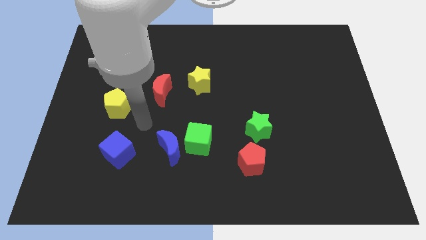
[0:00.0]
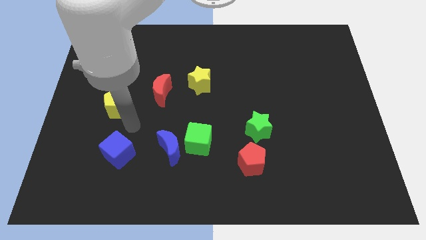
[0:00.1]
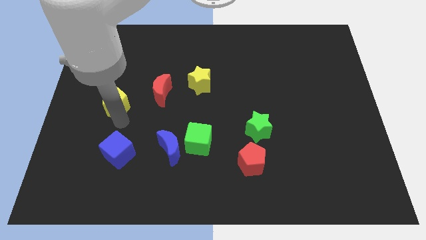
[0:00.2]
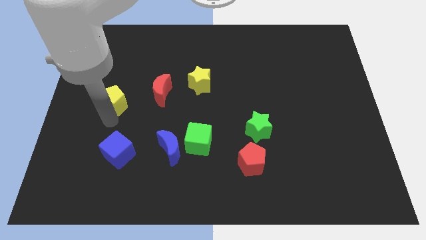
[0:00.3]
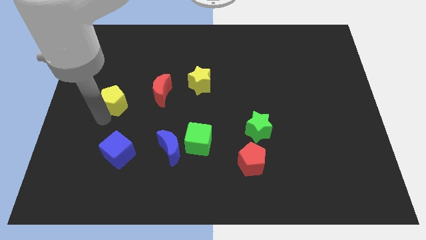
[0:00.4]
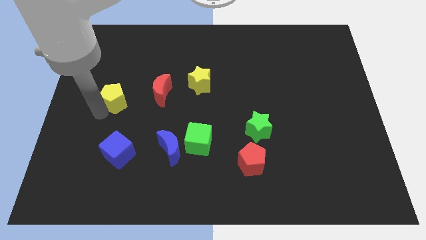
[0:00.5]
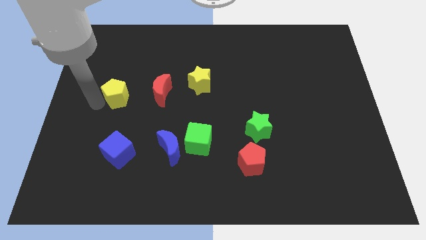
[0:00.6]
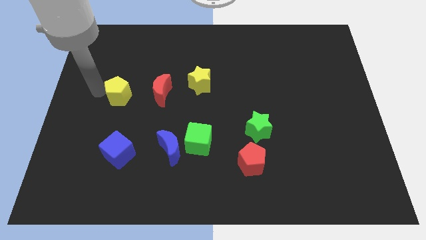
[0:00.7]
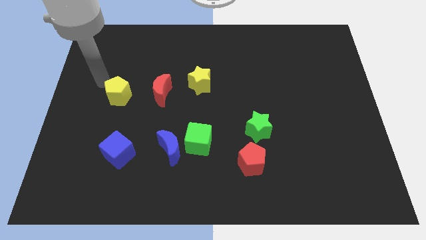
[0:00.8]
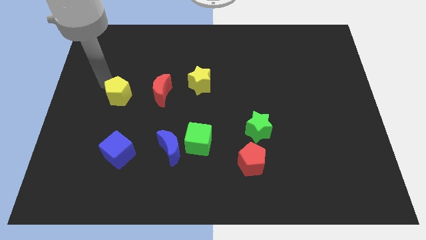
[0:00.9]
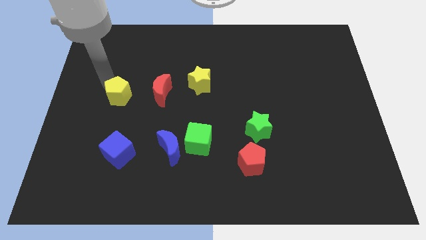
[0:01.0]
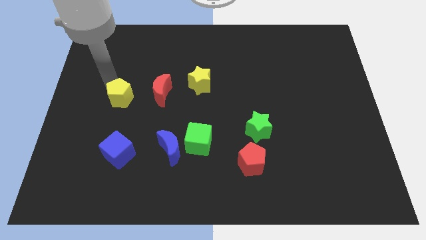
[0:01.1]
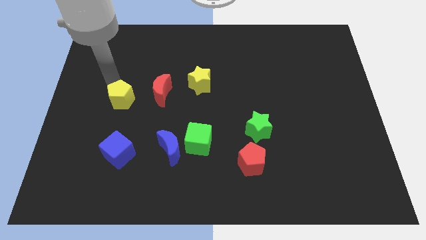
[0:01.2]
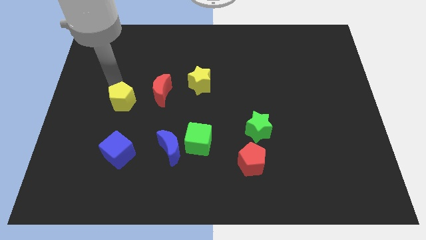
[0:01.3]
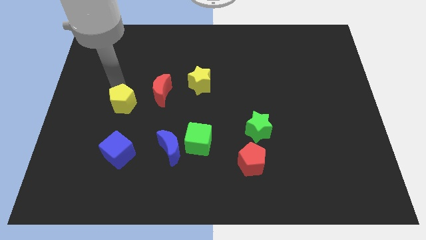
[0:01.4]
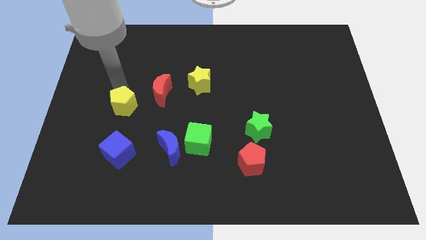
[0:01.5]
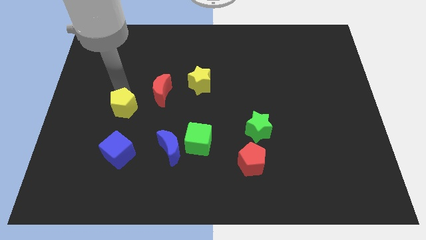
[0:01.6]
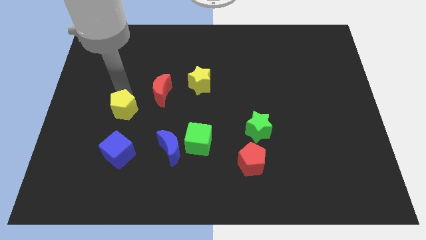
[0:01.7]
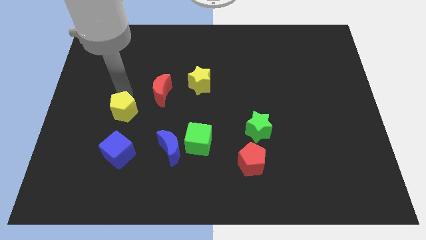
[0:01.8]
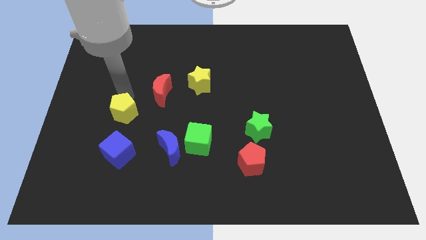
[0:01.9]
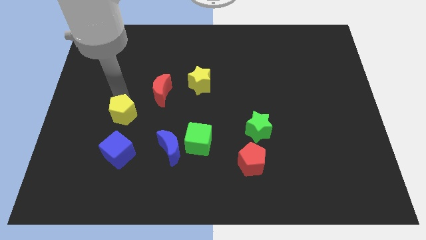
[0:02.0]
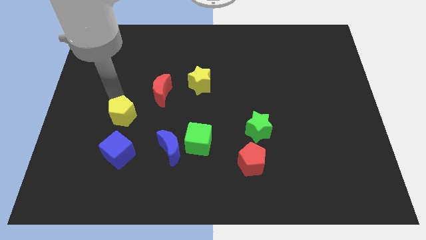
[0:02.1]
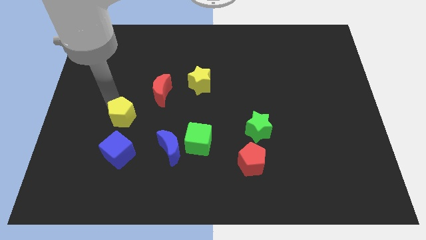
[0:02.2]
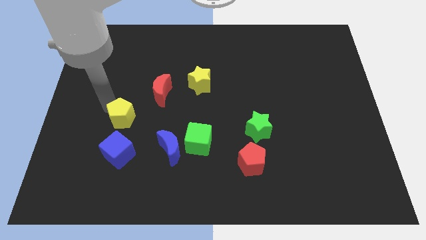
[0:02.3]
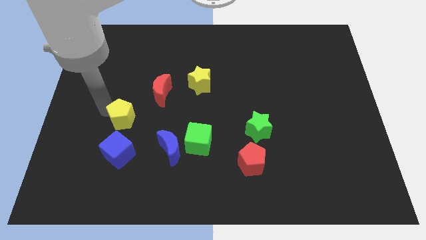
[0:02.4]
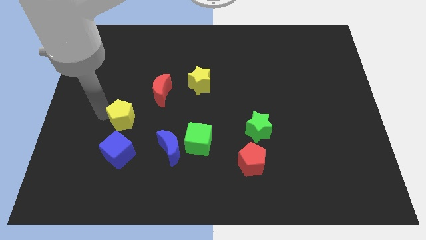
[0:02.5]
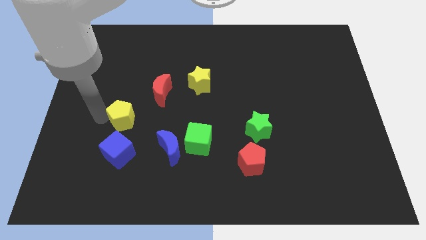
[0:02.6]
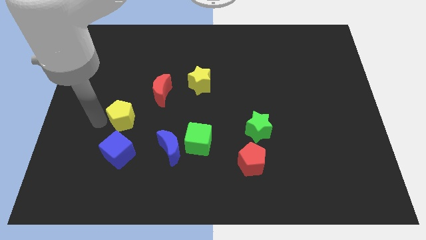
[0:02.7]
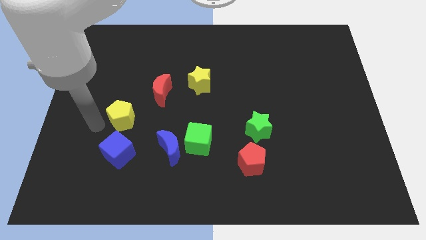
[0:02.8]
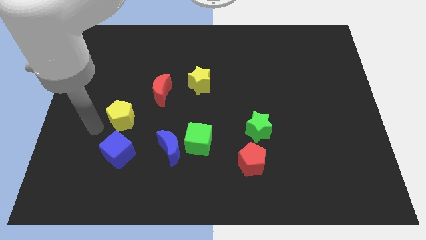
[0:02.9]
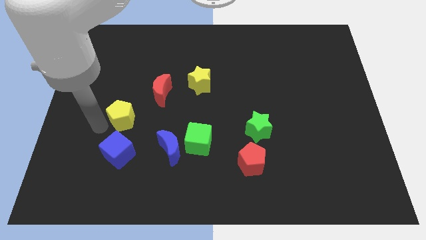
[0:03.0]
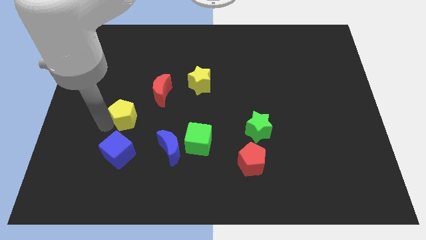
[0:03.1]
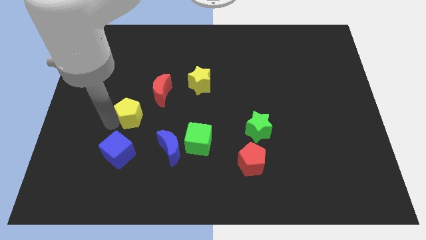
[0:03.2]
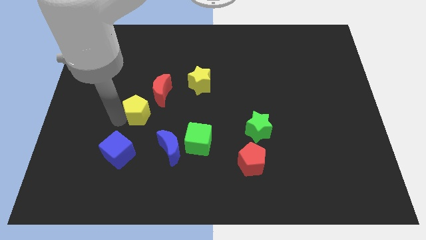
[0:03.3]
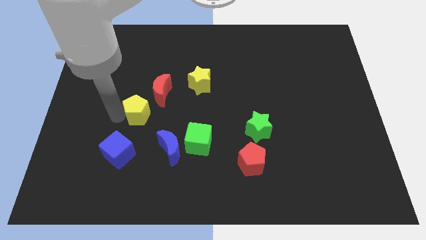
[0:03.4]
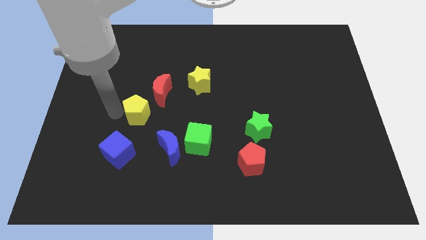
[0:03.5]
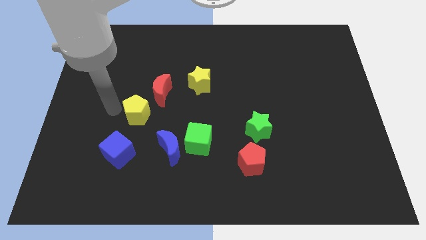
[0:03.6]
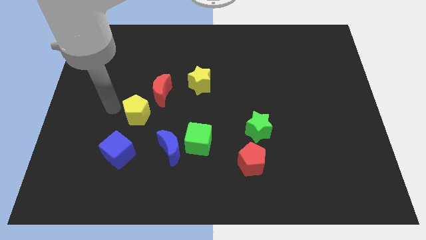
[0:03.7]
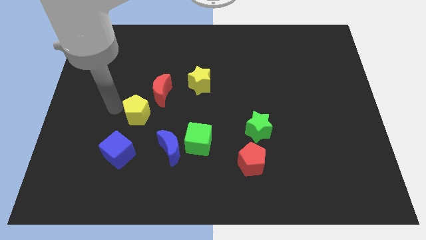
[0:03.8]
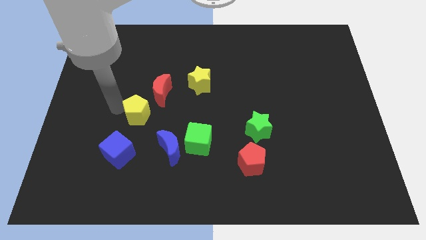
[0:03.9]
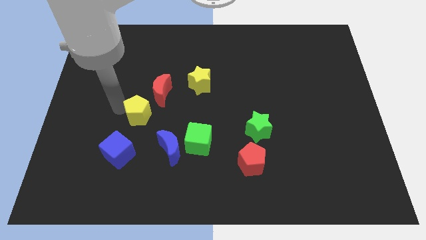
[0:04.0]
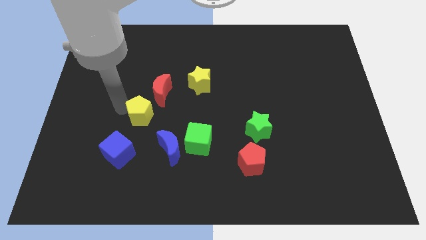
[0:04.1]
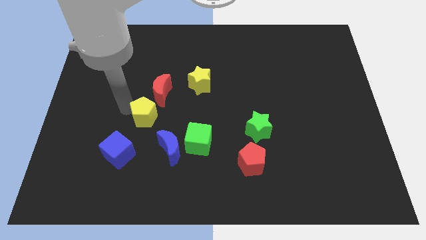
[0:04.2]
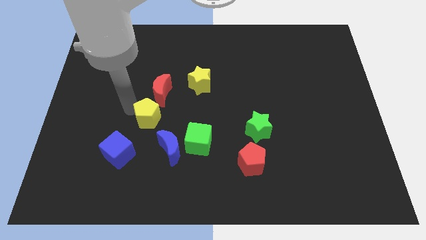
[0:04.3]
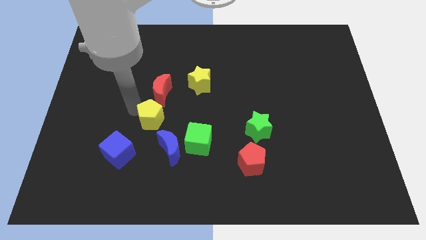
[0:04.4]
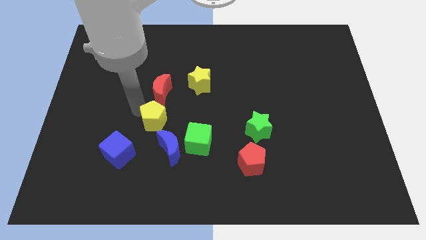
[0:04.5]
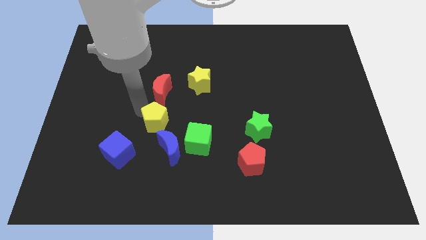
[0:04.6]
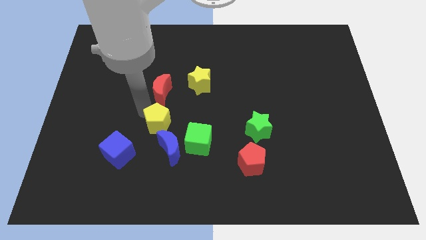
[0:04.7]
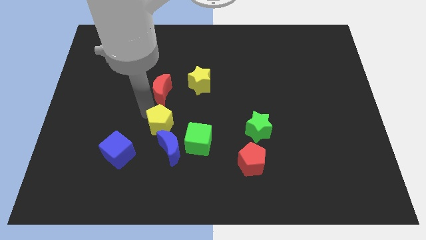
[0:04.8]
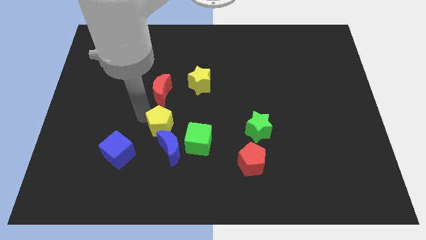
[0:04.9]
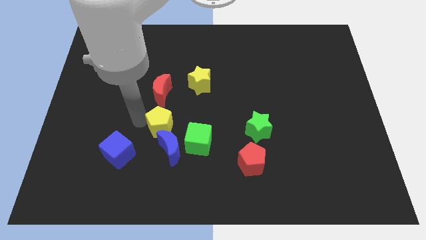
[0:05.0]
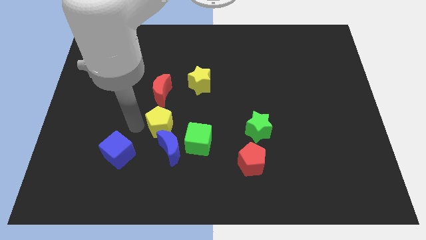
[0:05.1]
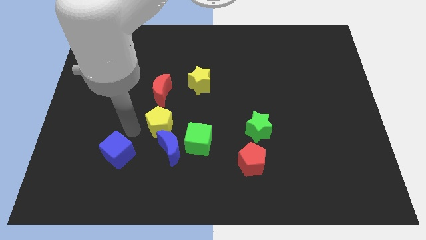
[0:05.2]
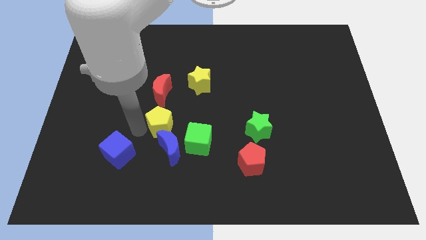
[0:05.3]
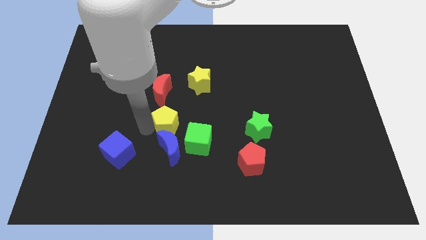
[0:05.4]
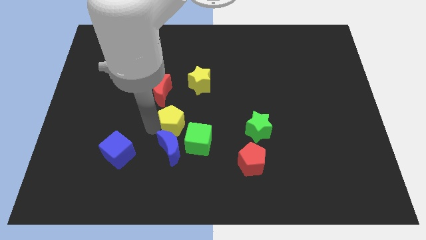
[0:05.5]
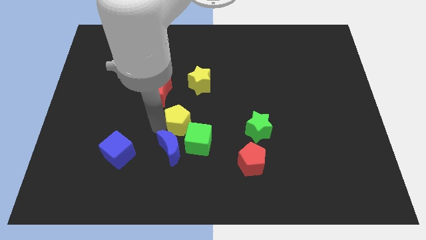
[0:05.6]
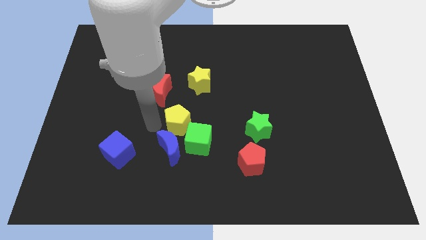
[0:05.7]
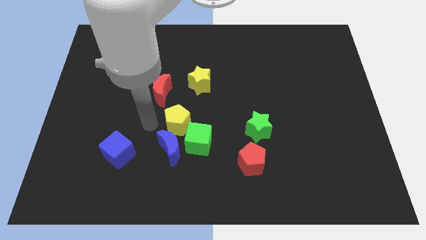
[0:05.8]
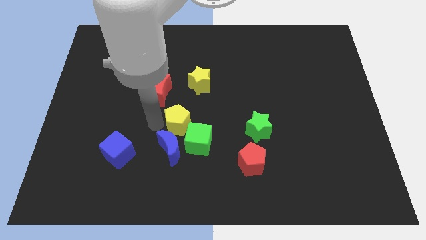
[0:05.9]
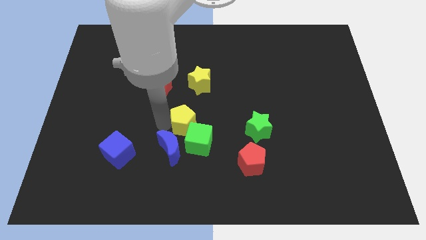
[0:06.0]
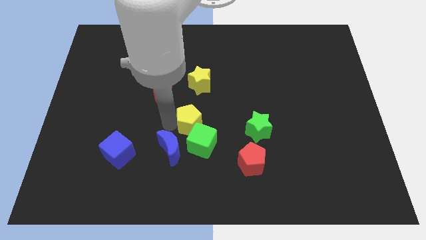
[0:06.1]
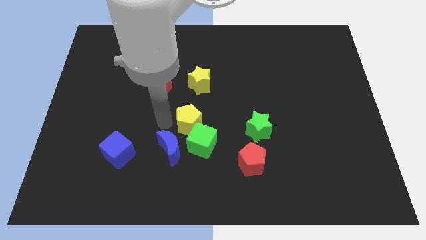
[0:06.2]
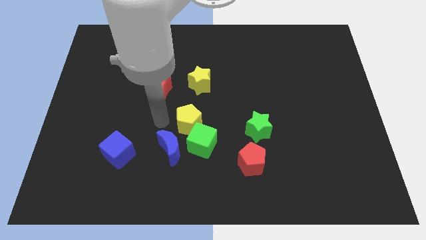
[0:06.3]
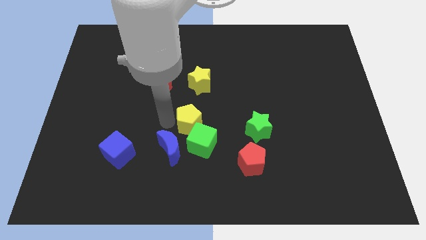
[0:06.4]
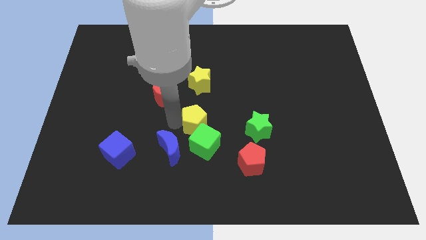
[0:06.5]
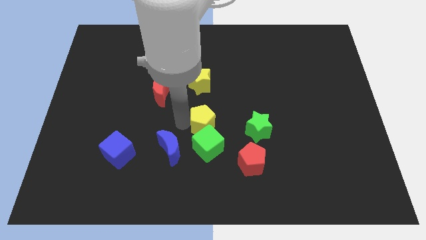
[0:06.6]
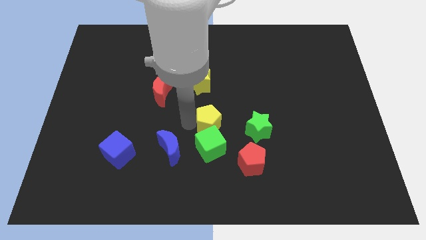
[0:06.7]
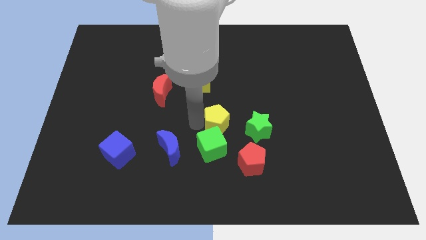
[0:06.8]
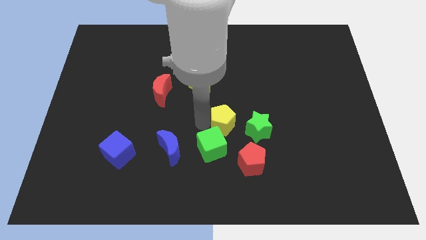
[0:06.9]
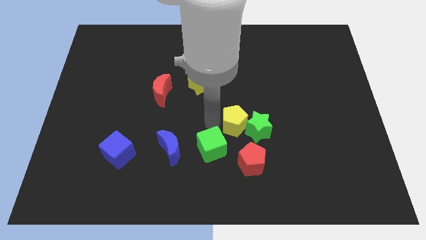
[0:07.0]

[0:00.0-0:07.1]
slide the yellow pentagon close to the green star

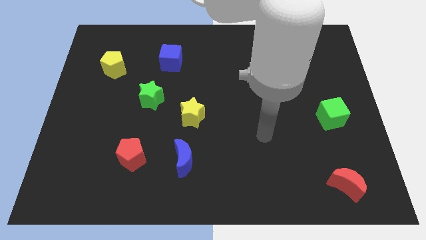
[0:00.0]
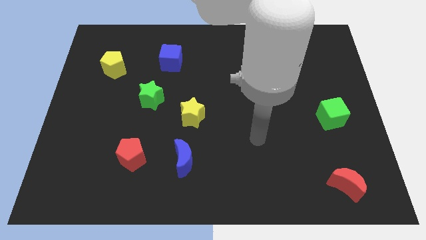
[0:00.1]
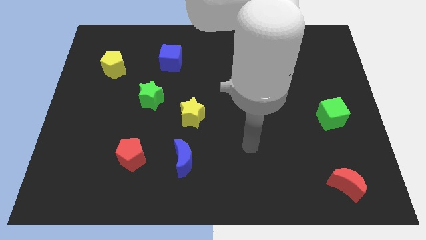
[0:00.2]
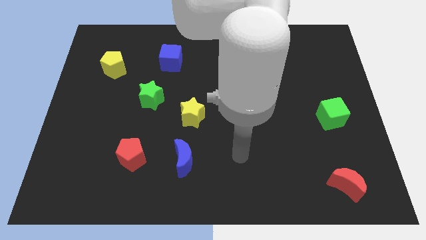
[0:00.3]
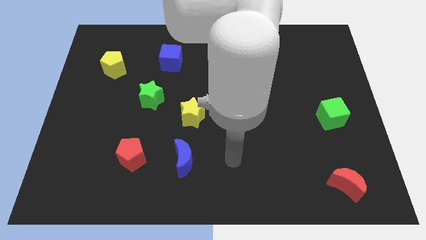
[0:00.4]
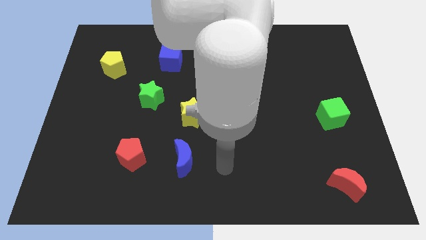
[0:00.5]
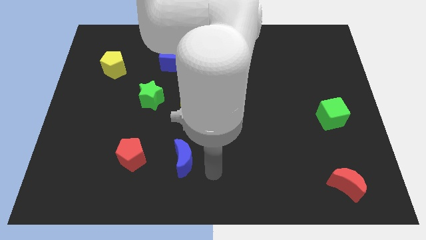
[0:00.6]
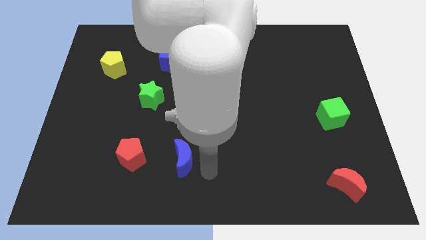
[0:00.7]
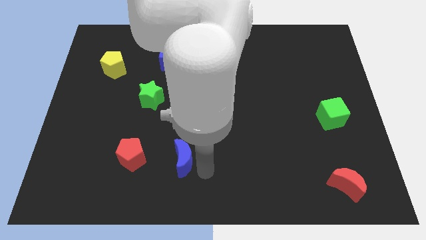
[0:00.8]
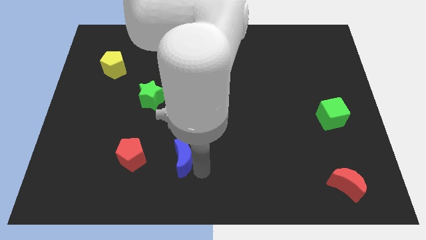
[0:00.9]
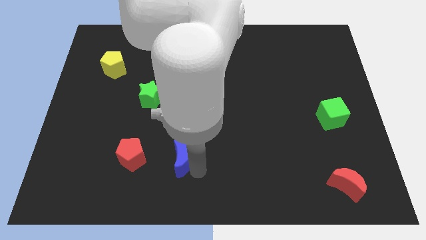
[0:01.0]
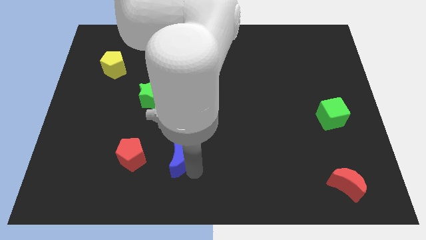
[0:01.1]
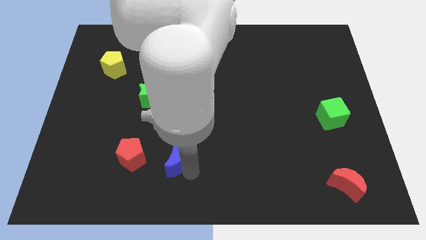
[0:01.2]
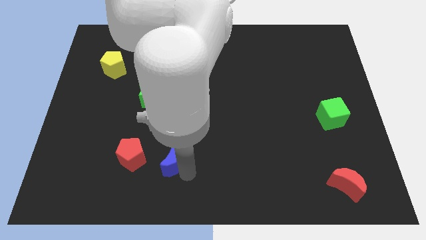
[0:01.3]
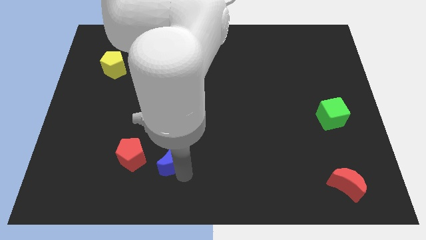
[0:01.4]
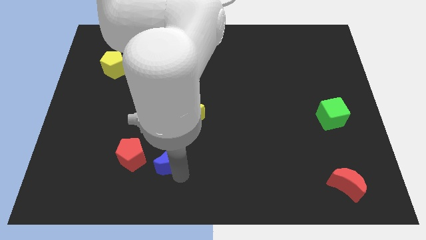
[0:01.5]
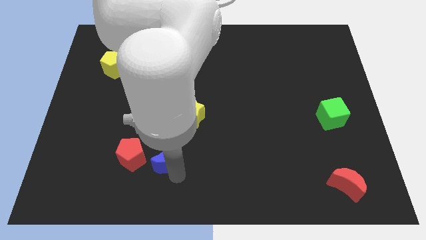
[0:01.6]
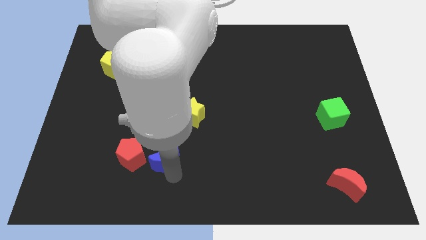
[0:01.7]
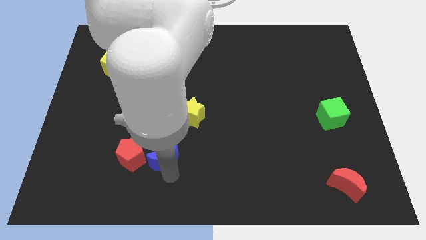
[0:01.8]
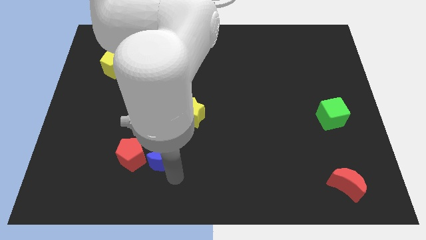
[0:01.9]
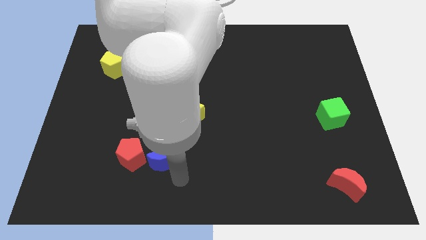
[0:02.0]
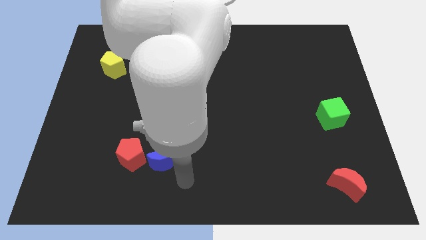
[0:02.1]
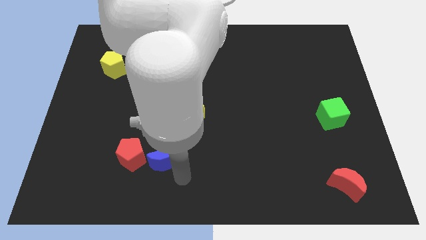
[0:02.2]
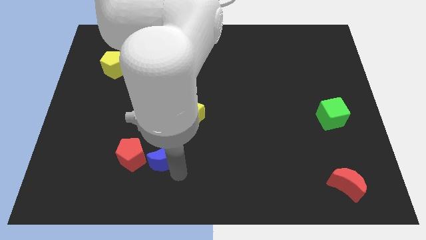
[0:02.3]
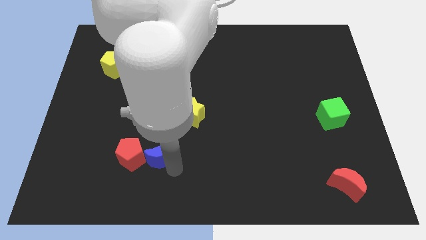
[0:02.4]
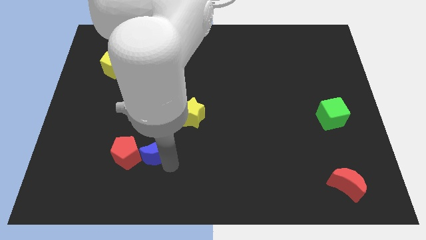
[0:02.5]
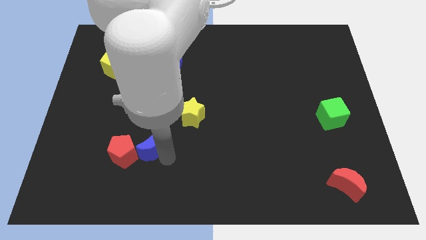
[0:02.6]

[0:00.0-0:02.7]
push the blue moon close to the red pentagon
